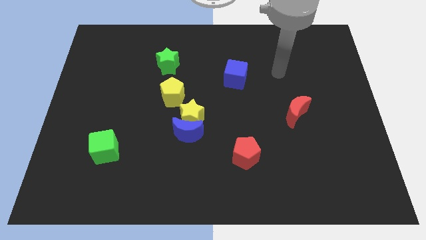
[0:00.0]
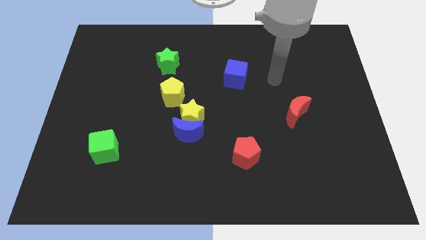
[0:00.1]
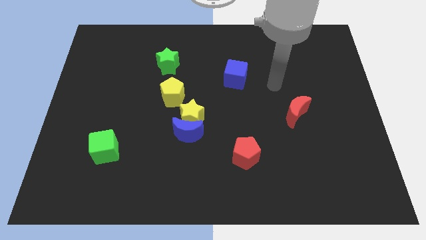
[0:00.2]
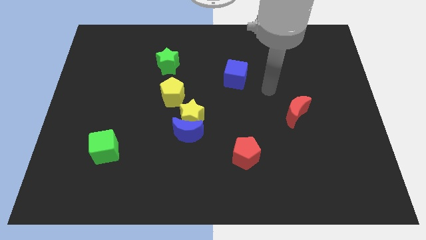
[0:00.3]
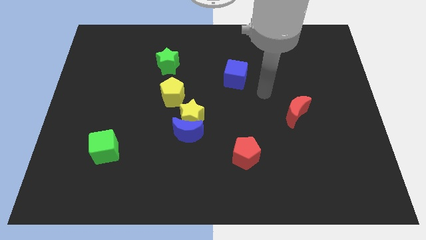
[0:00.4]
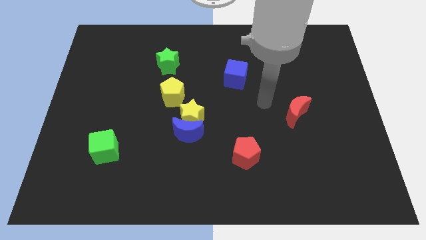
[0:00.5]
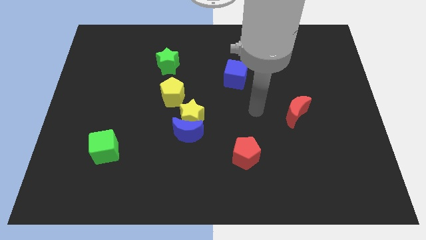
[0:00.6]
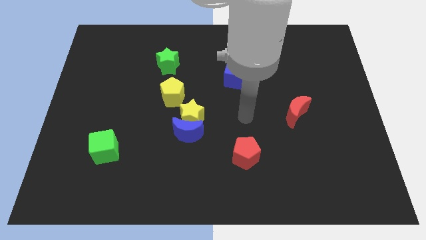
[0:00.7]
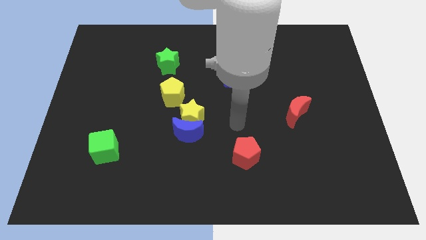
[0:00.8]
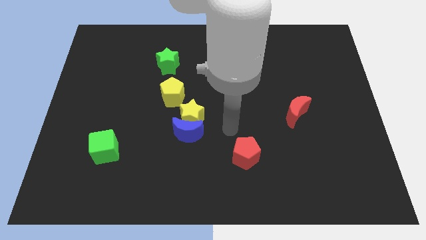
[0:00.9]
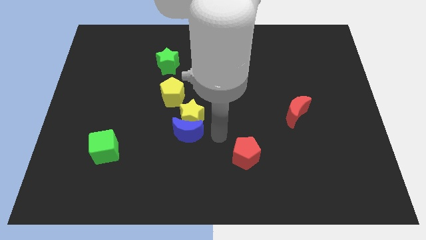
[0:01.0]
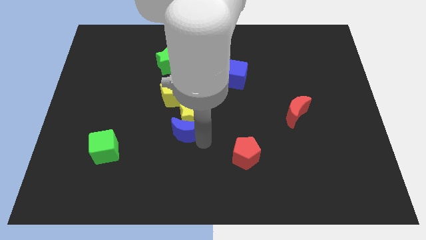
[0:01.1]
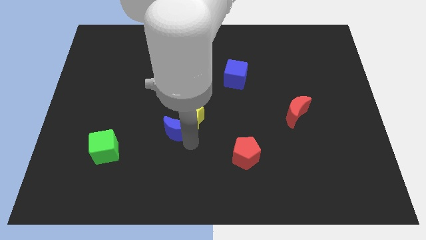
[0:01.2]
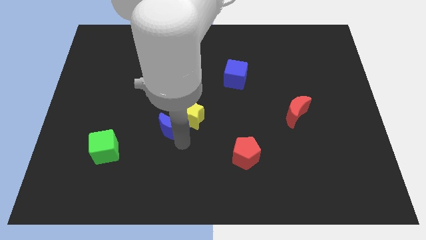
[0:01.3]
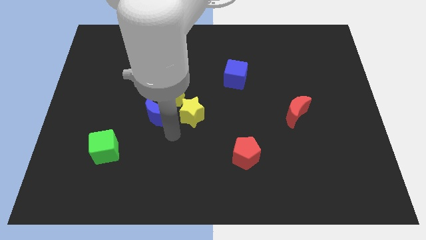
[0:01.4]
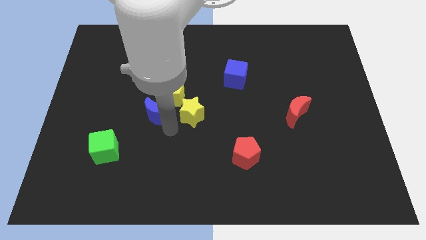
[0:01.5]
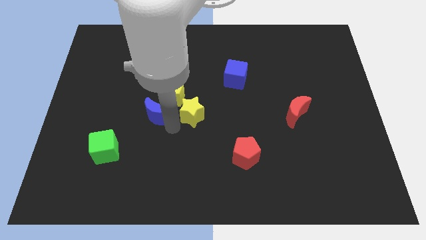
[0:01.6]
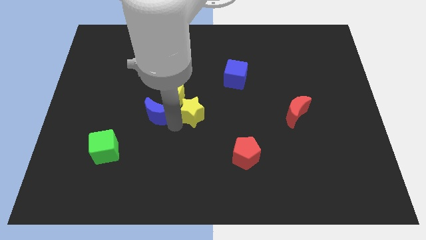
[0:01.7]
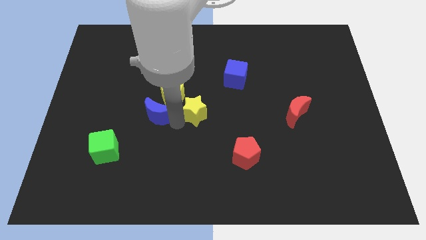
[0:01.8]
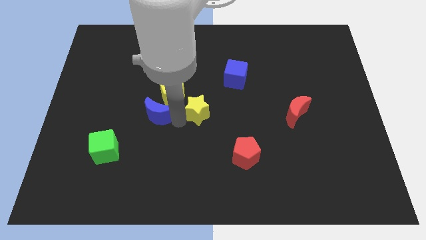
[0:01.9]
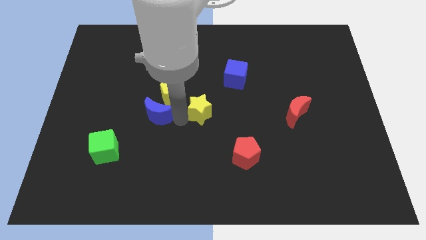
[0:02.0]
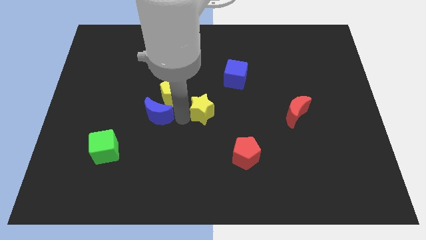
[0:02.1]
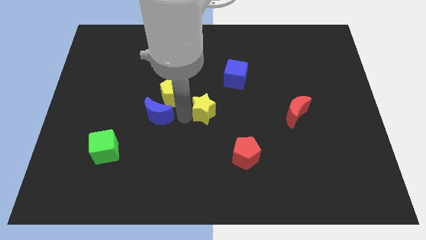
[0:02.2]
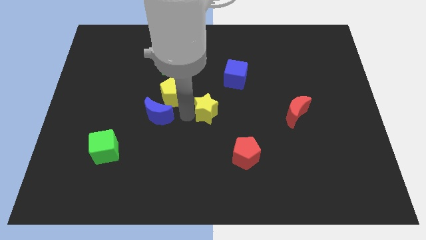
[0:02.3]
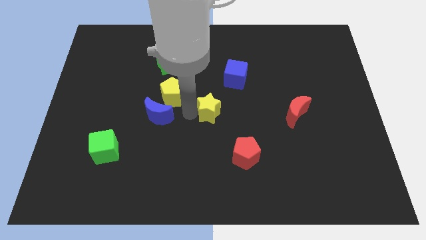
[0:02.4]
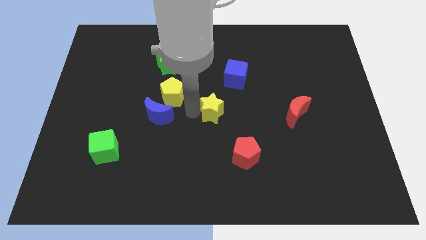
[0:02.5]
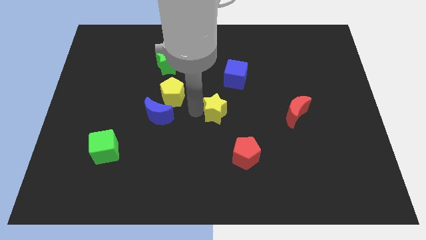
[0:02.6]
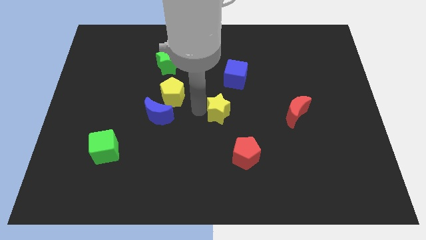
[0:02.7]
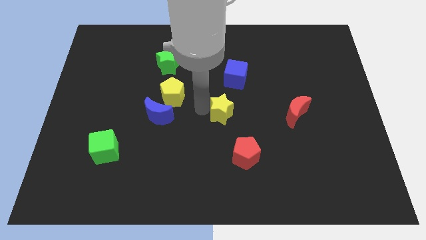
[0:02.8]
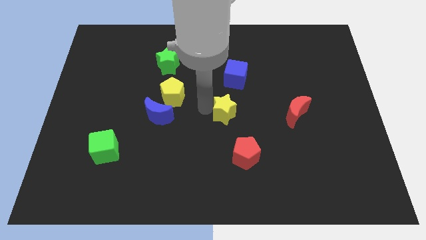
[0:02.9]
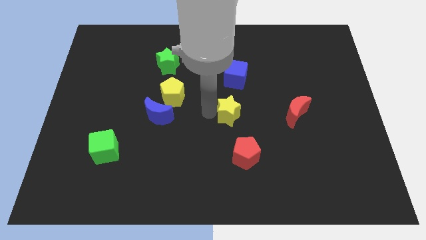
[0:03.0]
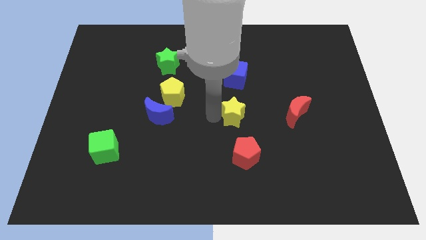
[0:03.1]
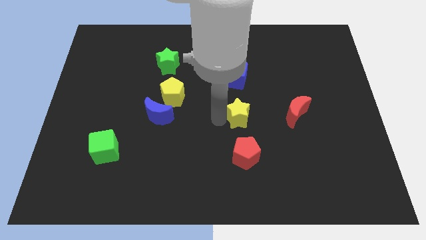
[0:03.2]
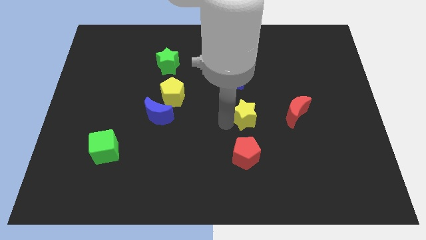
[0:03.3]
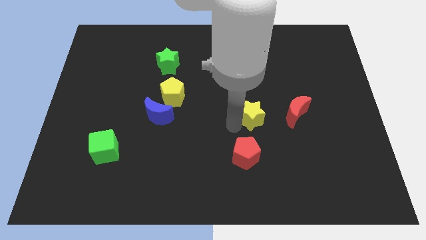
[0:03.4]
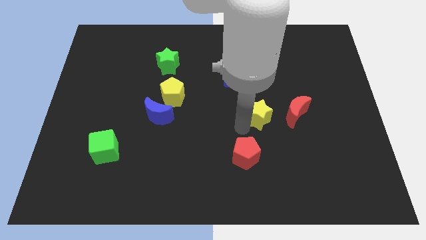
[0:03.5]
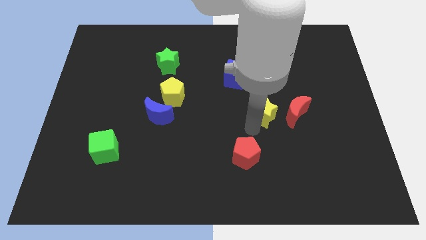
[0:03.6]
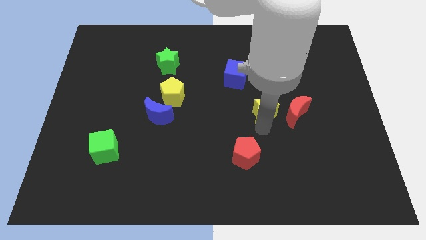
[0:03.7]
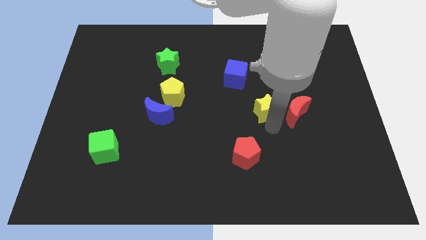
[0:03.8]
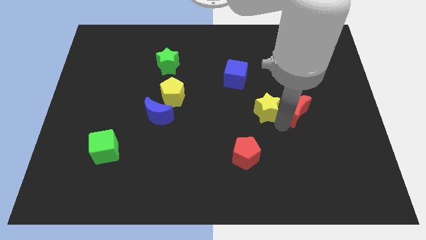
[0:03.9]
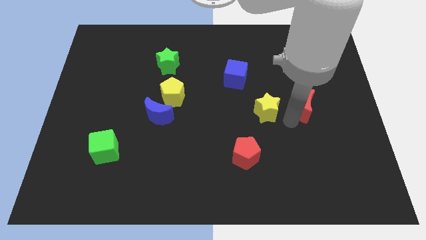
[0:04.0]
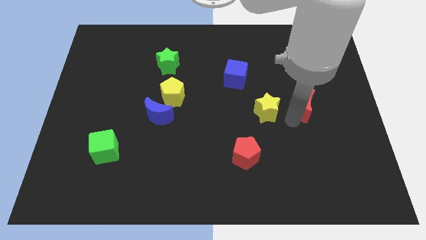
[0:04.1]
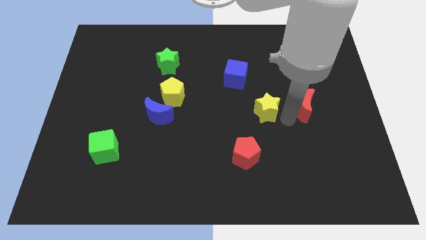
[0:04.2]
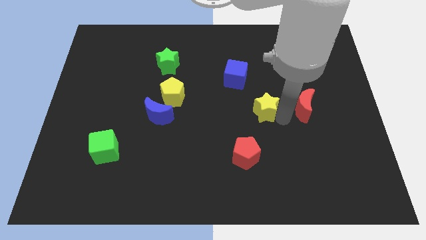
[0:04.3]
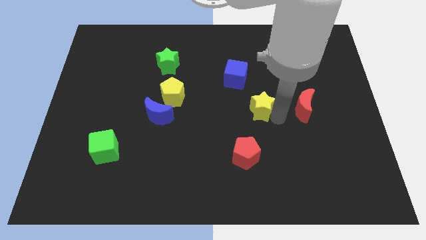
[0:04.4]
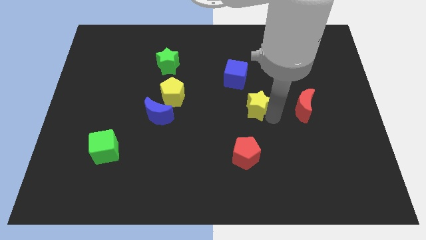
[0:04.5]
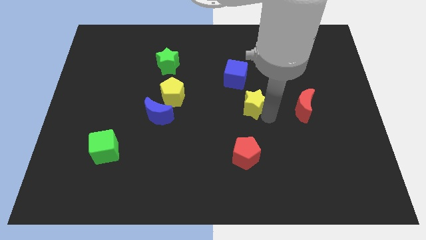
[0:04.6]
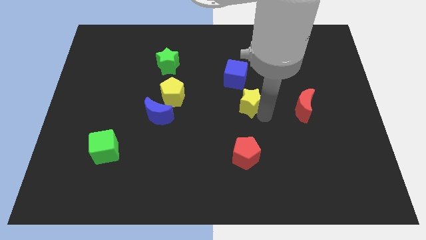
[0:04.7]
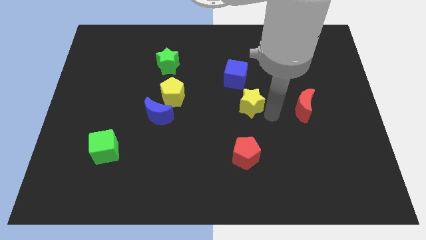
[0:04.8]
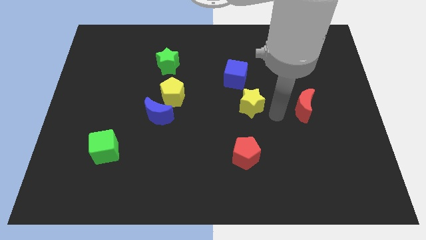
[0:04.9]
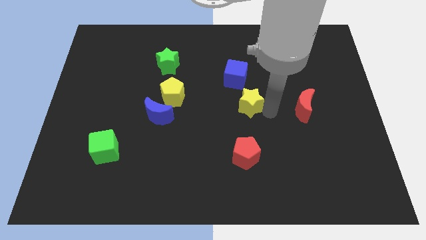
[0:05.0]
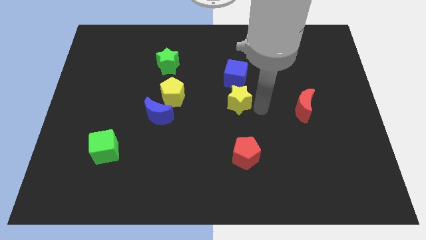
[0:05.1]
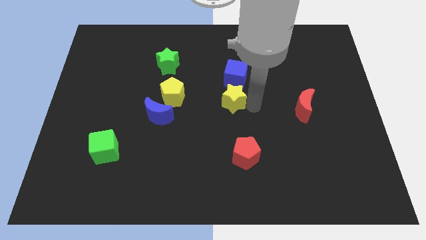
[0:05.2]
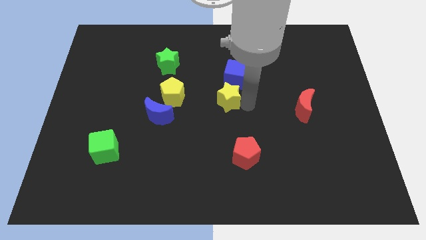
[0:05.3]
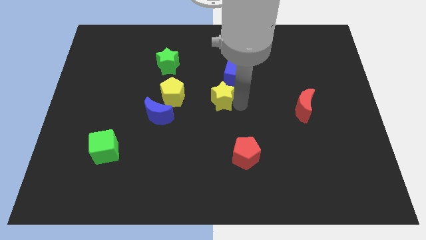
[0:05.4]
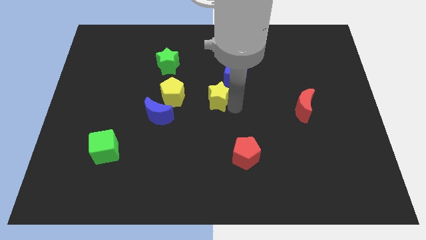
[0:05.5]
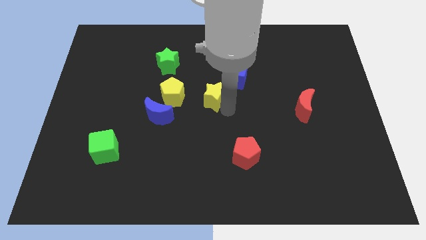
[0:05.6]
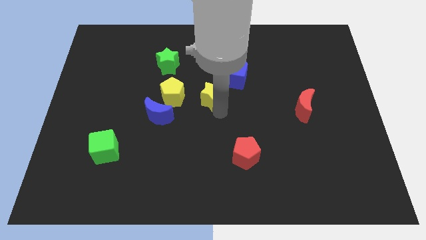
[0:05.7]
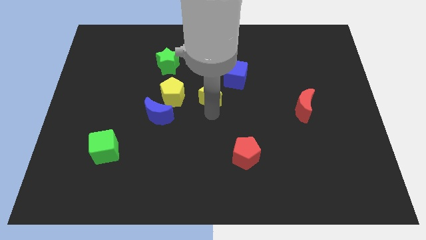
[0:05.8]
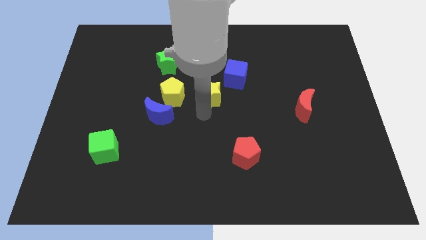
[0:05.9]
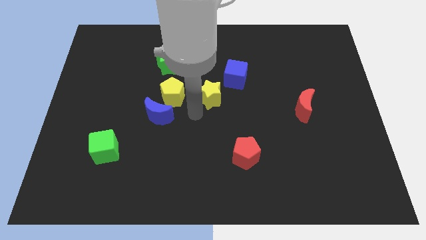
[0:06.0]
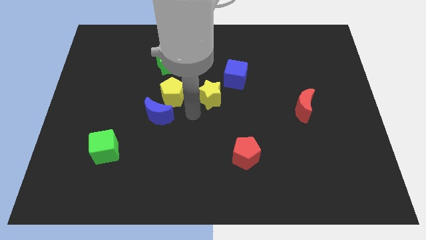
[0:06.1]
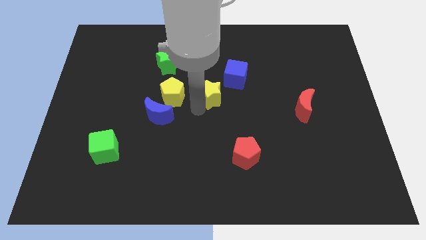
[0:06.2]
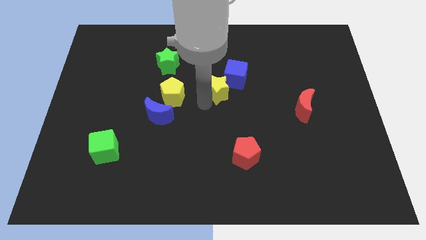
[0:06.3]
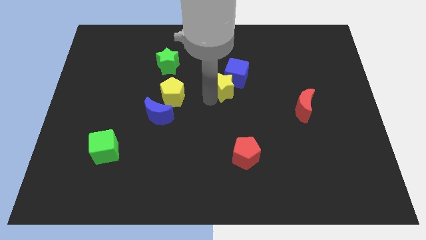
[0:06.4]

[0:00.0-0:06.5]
put the yellow star to the blue cube
